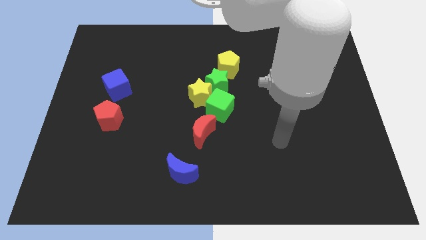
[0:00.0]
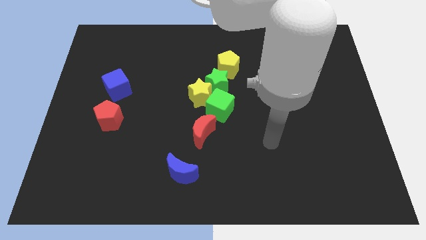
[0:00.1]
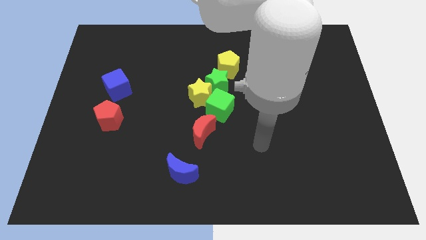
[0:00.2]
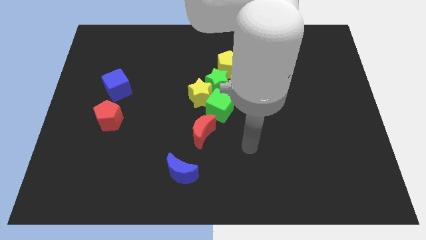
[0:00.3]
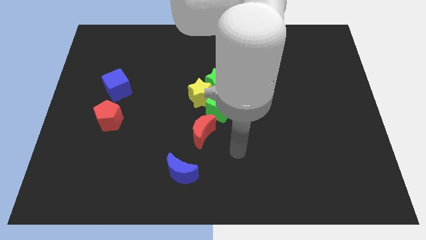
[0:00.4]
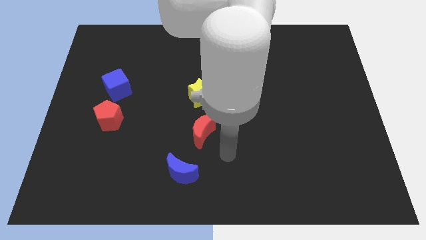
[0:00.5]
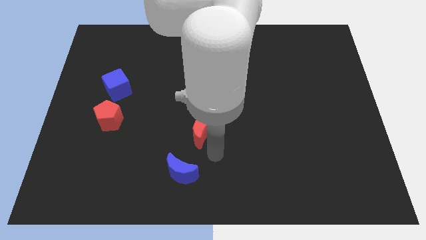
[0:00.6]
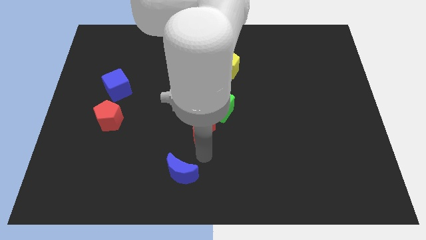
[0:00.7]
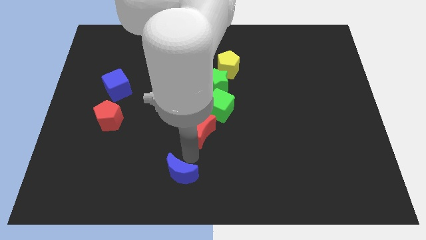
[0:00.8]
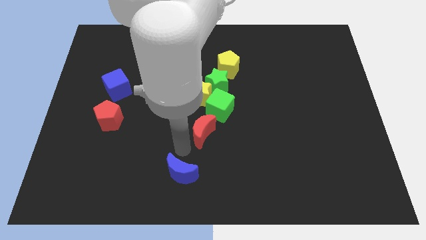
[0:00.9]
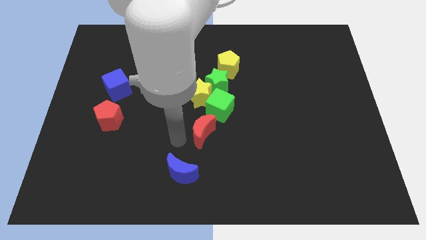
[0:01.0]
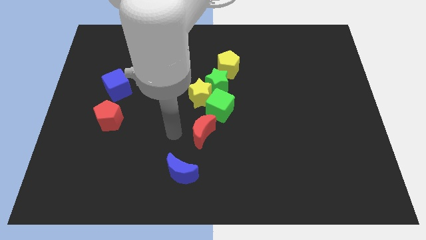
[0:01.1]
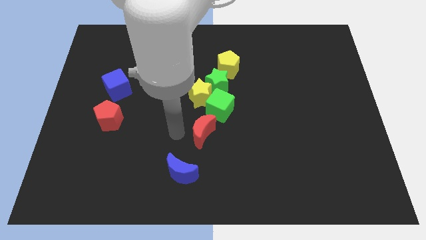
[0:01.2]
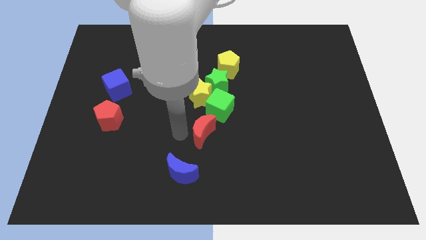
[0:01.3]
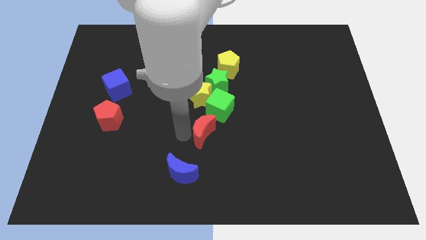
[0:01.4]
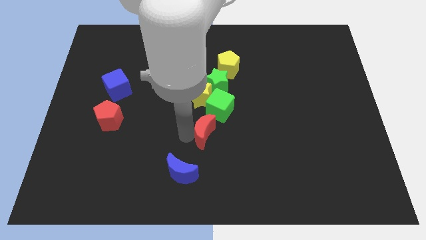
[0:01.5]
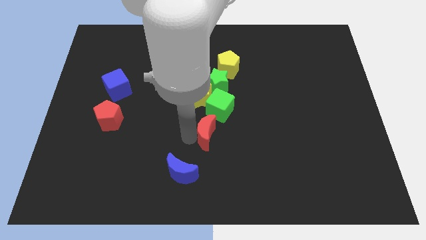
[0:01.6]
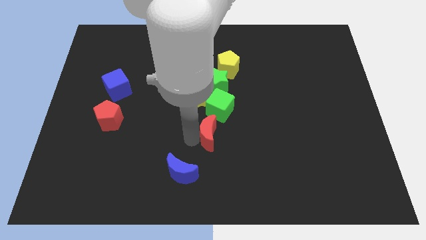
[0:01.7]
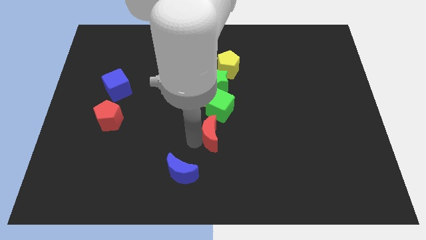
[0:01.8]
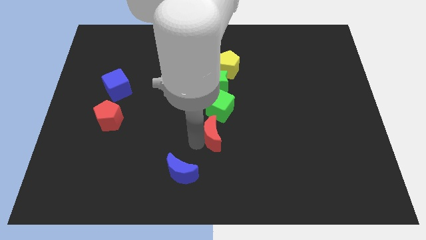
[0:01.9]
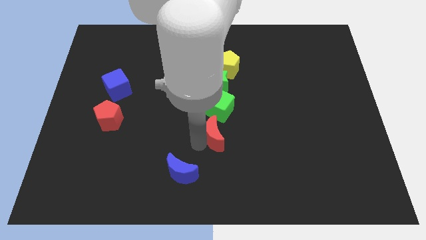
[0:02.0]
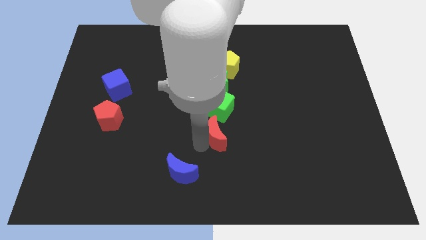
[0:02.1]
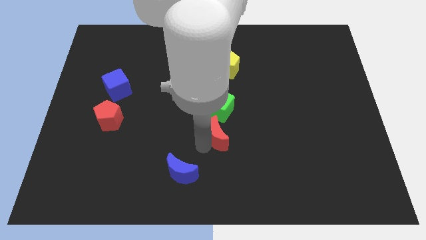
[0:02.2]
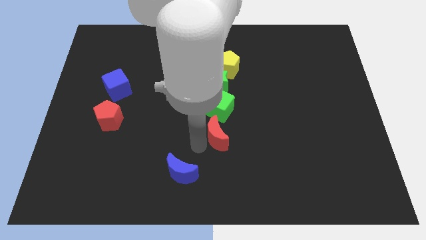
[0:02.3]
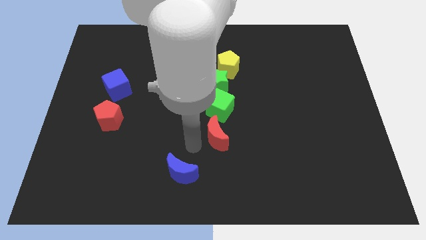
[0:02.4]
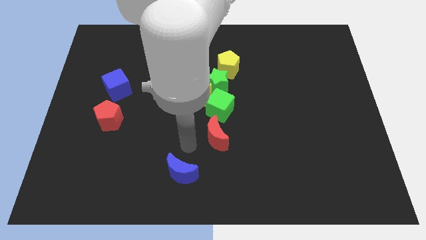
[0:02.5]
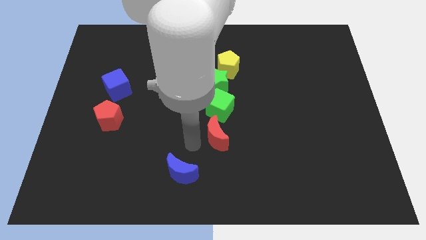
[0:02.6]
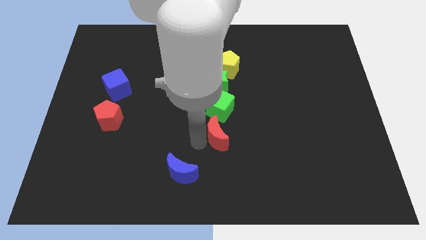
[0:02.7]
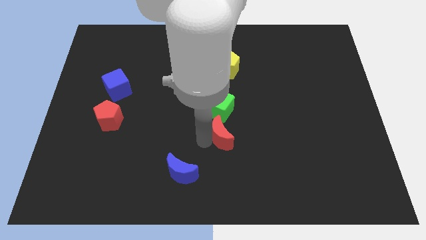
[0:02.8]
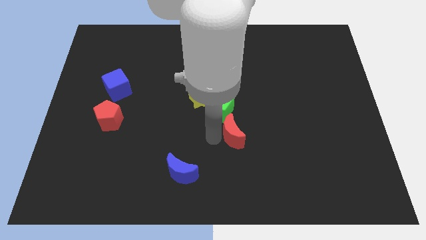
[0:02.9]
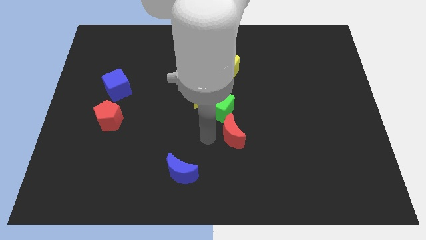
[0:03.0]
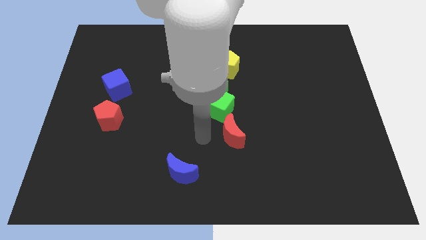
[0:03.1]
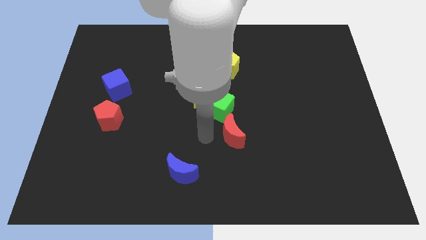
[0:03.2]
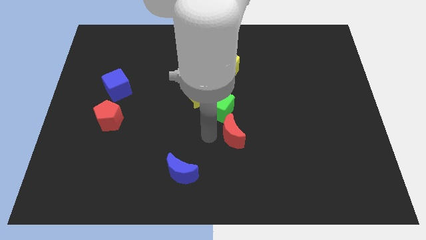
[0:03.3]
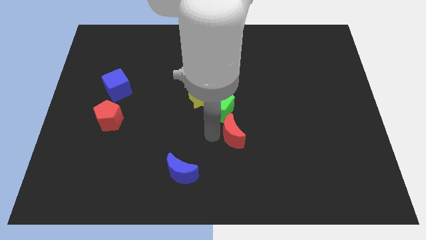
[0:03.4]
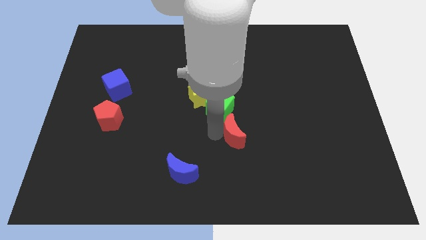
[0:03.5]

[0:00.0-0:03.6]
slide the red moon somewhat to the right

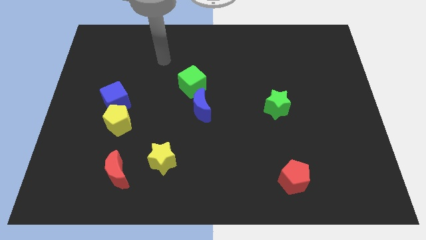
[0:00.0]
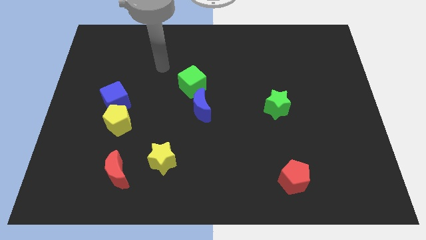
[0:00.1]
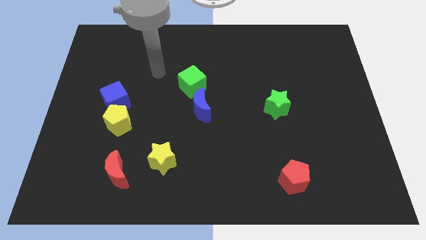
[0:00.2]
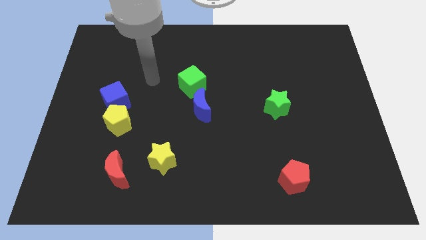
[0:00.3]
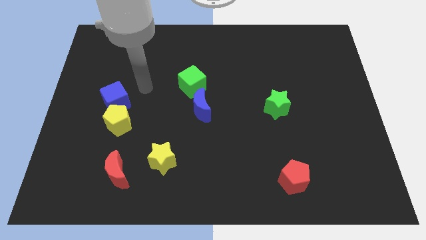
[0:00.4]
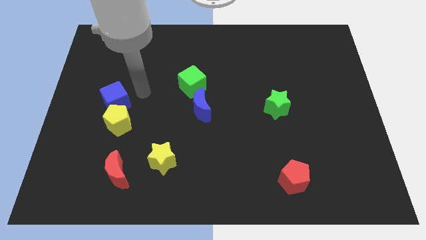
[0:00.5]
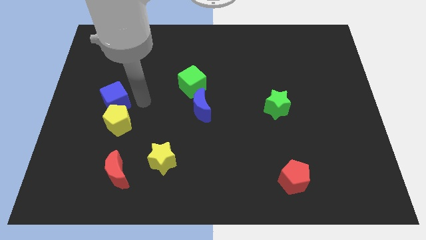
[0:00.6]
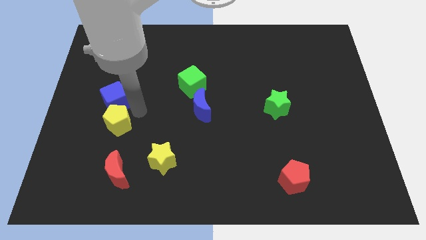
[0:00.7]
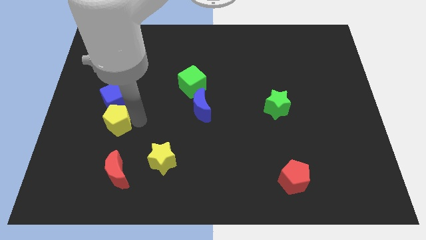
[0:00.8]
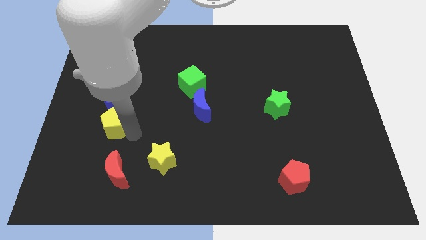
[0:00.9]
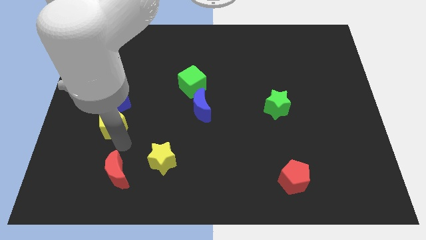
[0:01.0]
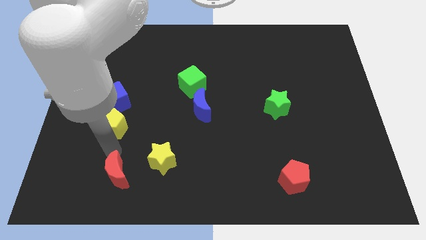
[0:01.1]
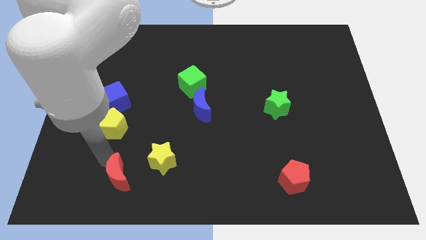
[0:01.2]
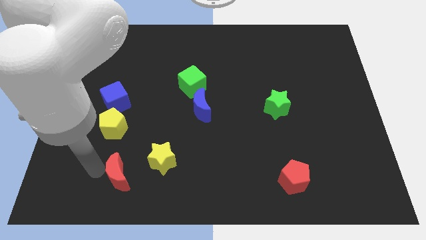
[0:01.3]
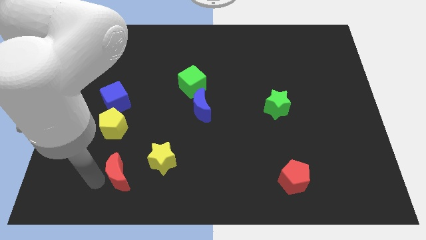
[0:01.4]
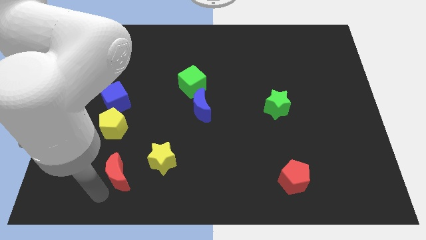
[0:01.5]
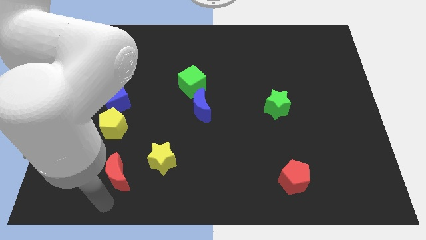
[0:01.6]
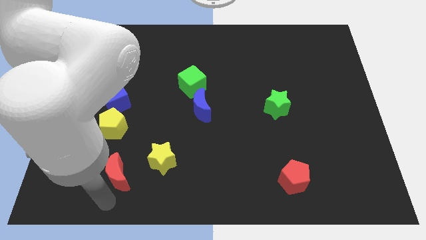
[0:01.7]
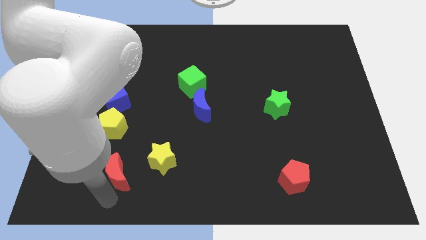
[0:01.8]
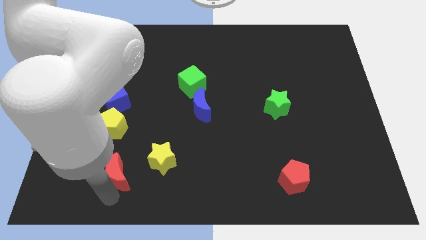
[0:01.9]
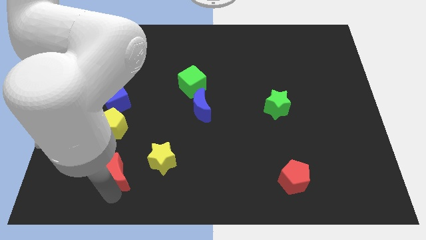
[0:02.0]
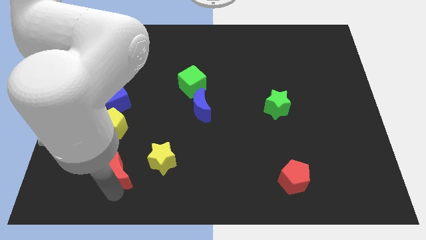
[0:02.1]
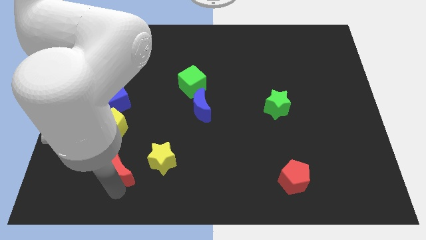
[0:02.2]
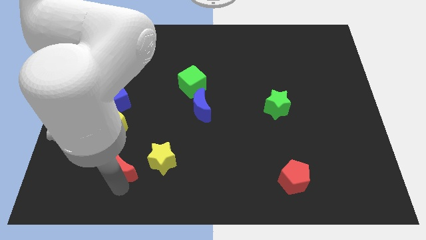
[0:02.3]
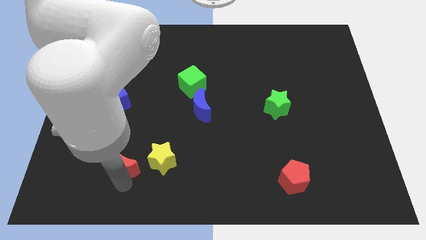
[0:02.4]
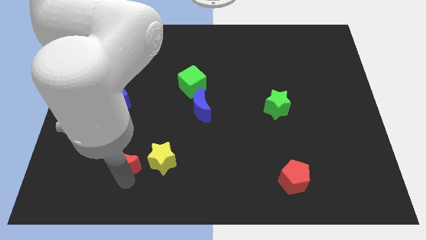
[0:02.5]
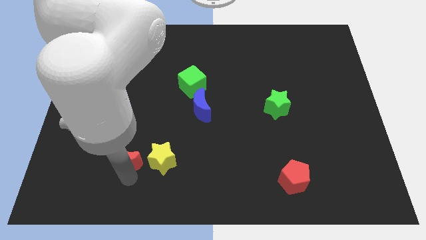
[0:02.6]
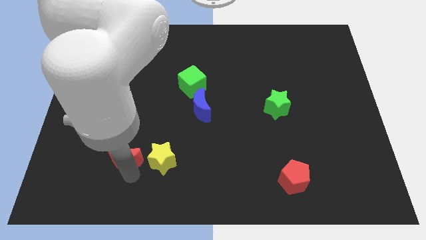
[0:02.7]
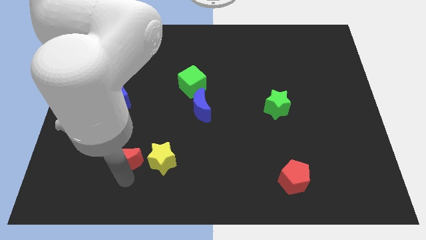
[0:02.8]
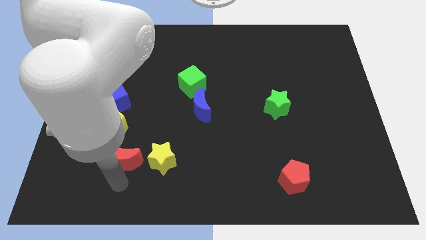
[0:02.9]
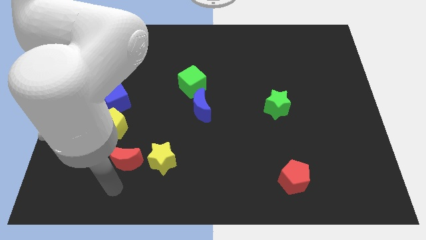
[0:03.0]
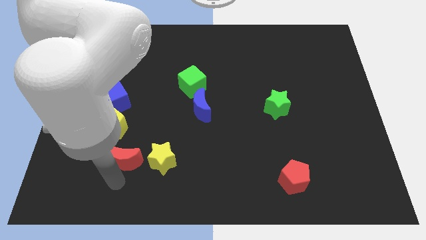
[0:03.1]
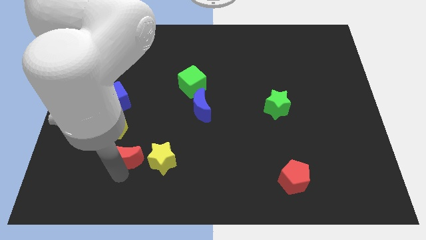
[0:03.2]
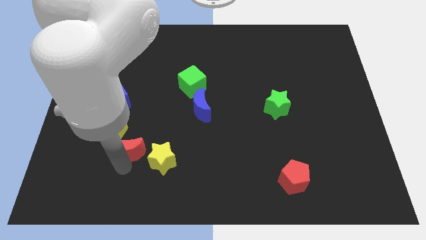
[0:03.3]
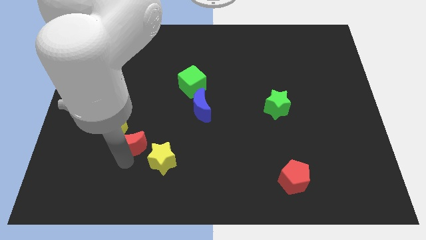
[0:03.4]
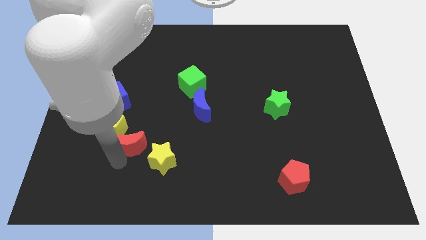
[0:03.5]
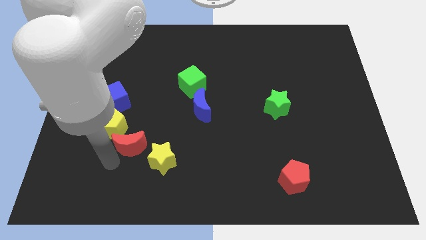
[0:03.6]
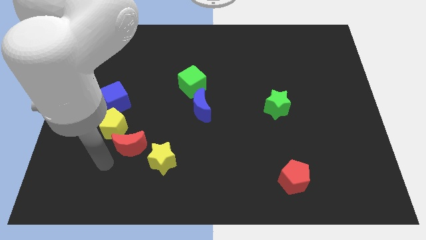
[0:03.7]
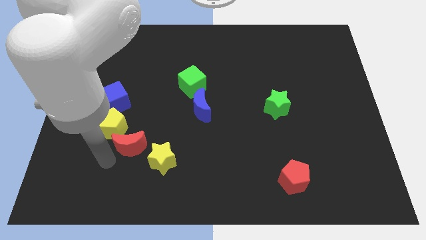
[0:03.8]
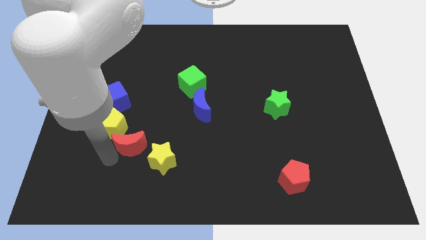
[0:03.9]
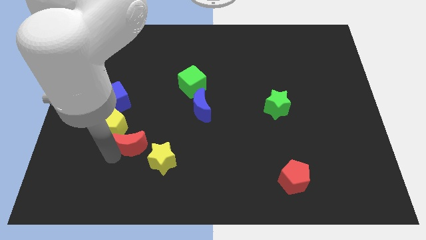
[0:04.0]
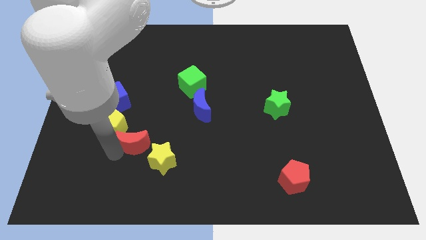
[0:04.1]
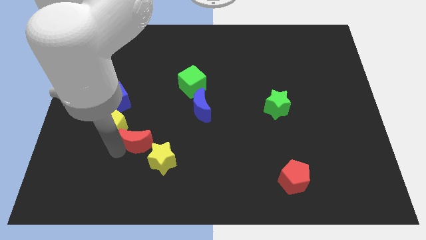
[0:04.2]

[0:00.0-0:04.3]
push the red moon a little diagonally upwards and right
